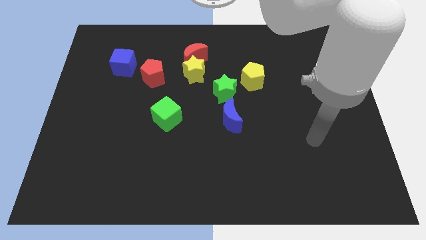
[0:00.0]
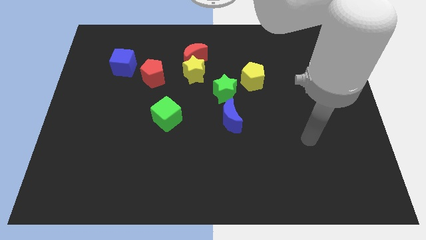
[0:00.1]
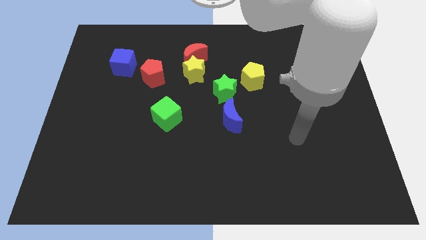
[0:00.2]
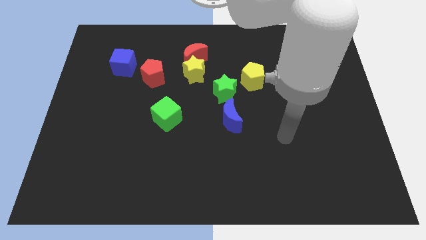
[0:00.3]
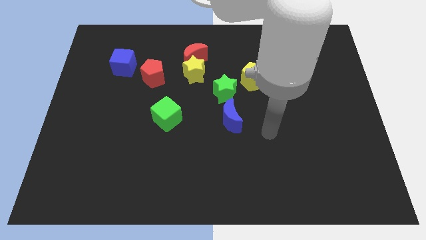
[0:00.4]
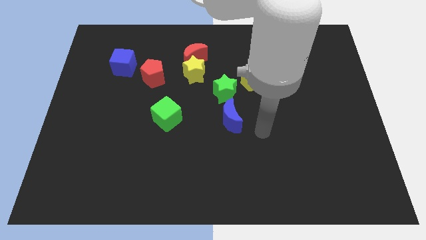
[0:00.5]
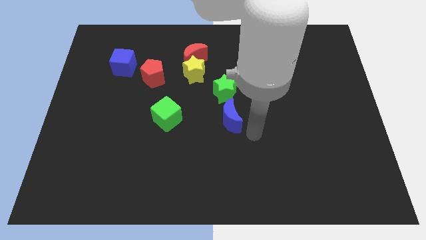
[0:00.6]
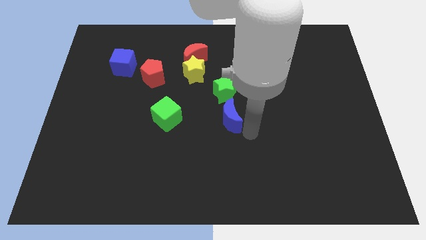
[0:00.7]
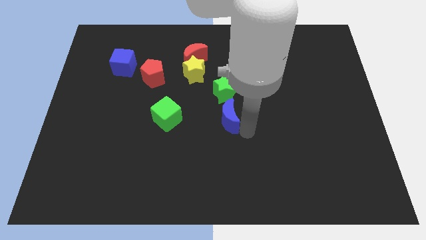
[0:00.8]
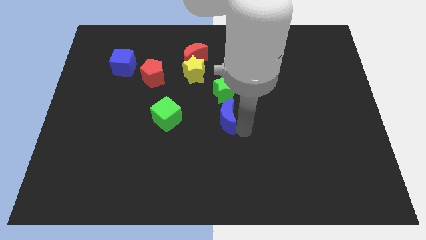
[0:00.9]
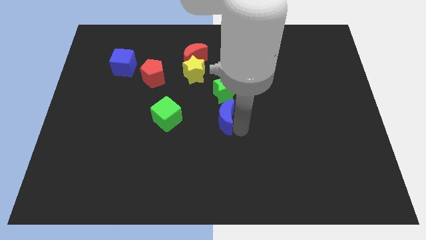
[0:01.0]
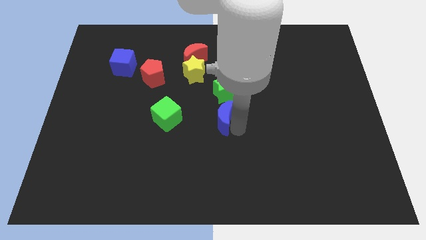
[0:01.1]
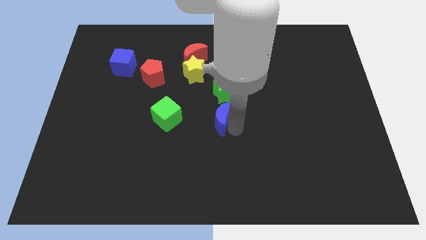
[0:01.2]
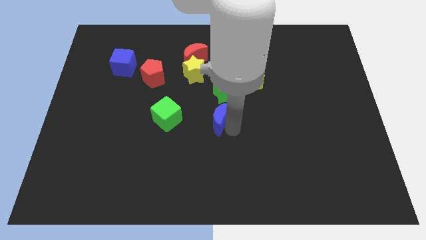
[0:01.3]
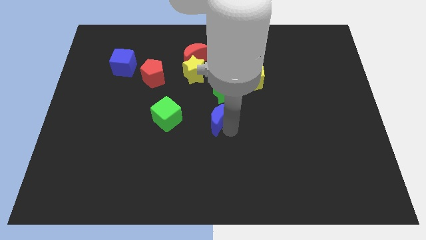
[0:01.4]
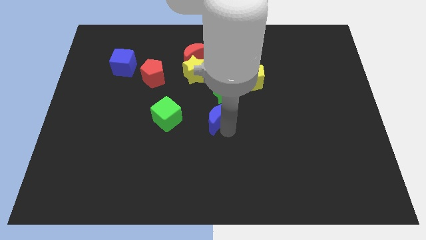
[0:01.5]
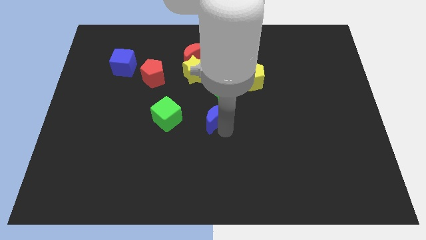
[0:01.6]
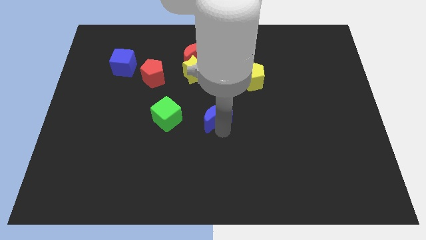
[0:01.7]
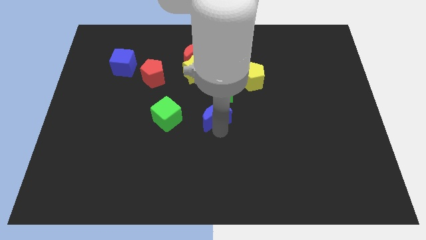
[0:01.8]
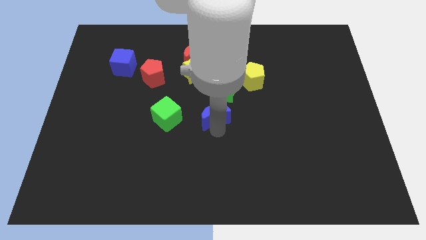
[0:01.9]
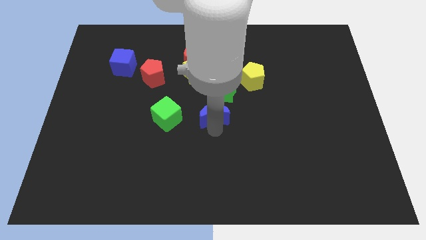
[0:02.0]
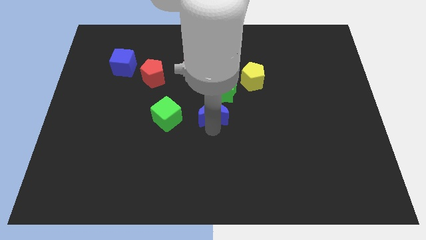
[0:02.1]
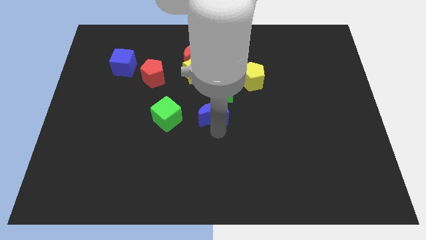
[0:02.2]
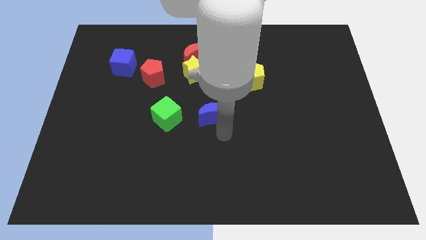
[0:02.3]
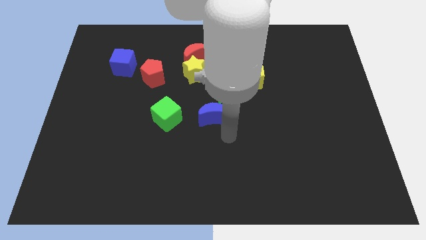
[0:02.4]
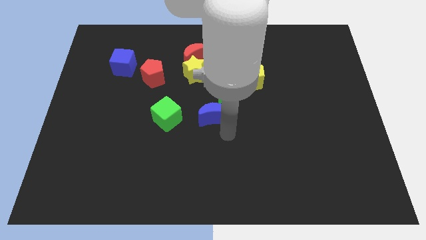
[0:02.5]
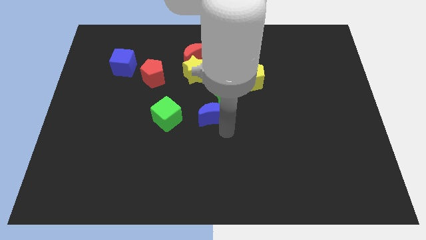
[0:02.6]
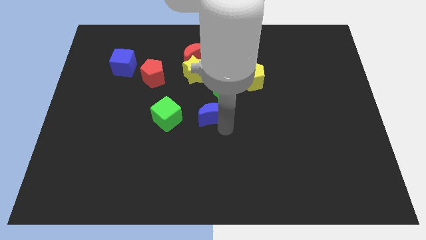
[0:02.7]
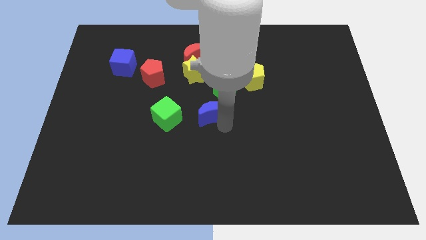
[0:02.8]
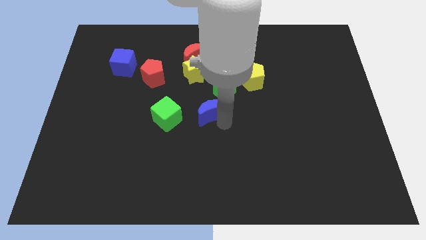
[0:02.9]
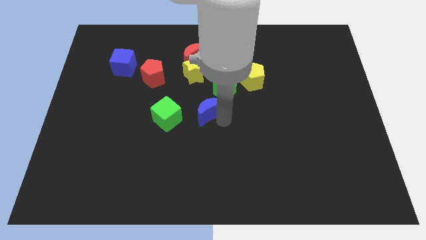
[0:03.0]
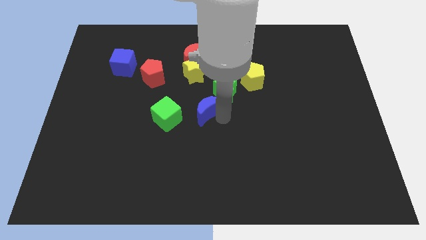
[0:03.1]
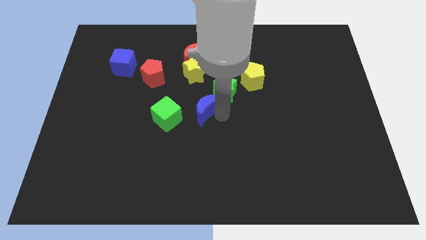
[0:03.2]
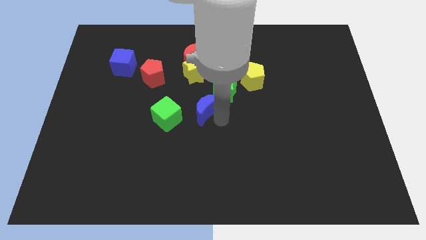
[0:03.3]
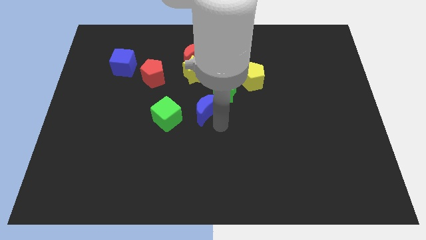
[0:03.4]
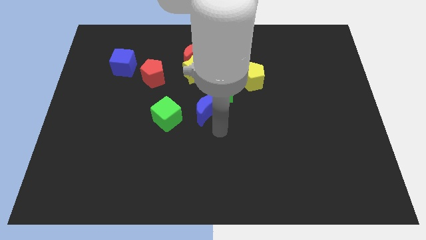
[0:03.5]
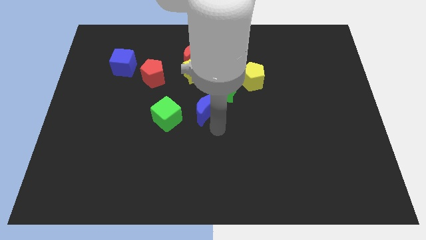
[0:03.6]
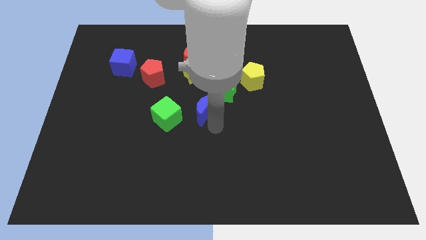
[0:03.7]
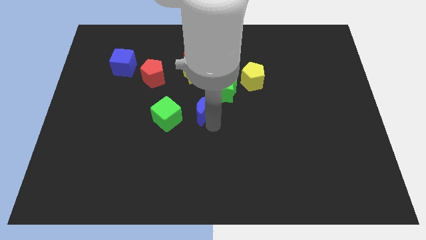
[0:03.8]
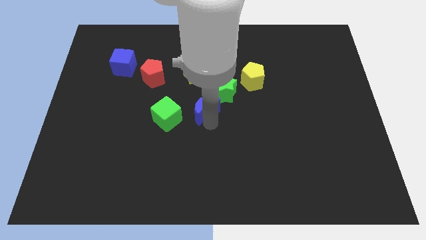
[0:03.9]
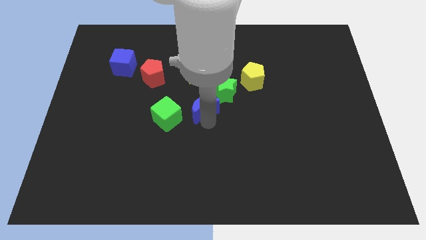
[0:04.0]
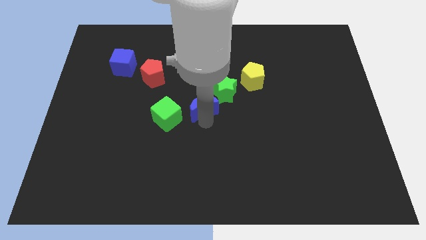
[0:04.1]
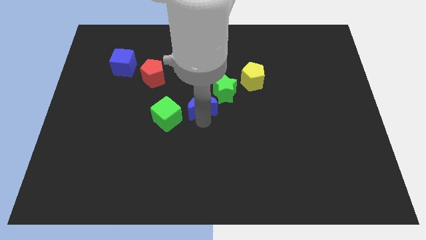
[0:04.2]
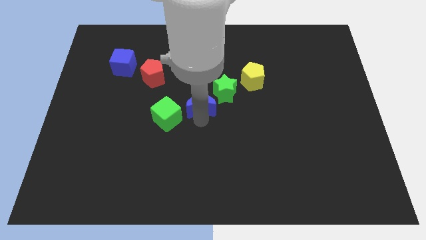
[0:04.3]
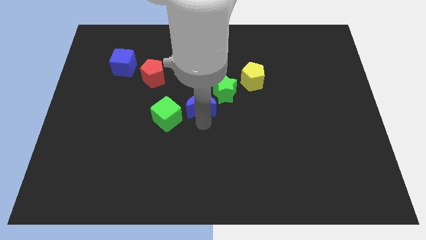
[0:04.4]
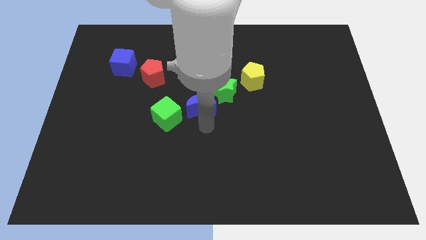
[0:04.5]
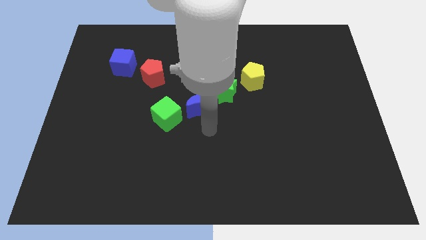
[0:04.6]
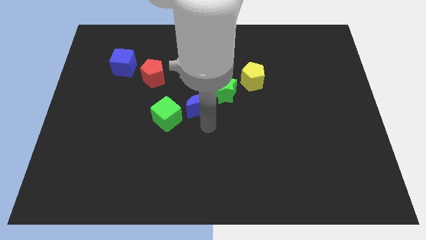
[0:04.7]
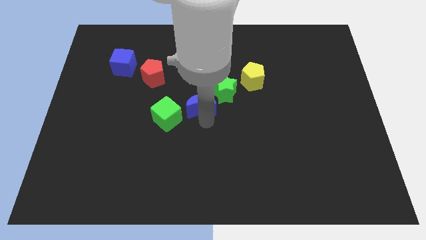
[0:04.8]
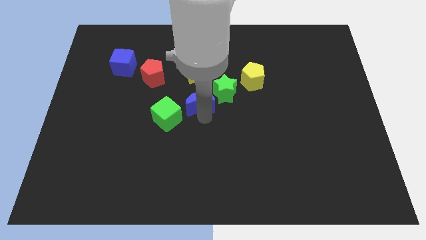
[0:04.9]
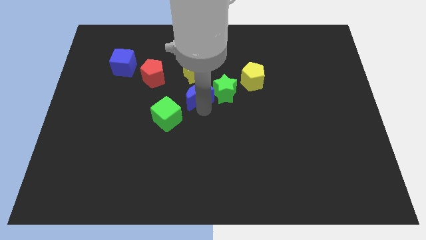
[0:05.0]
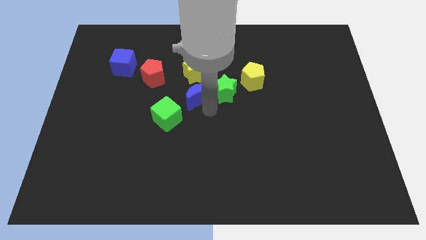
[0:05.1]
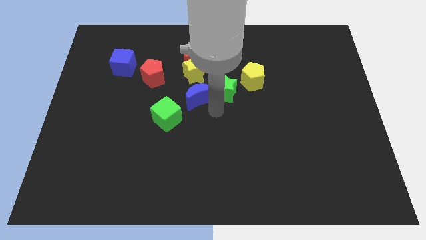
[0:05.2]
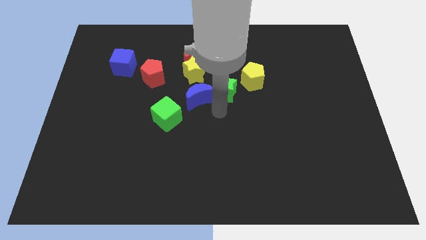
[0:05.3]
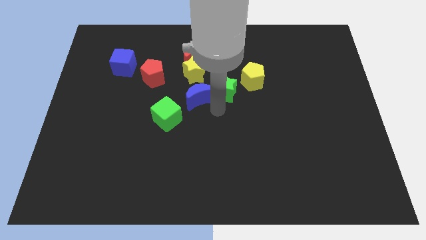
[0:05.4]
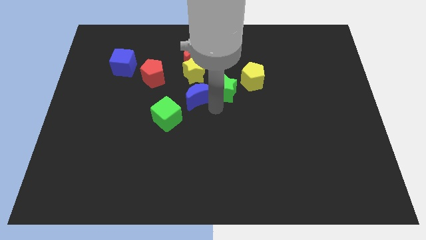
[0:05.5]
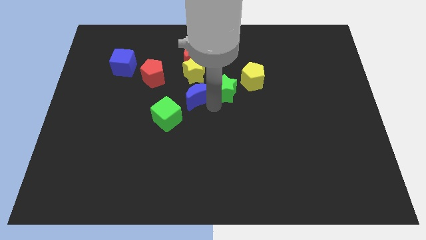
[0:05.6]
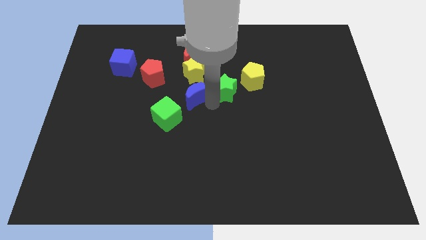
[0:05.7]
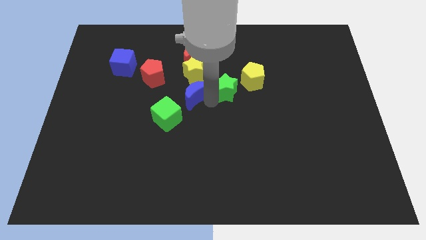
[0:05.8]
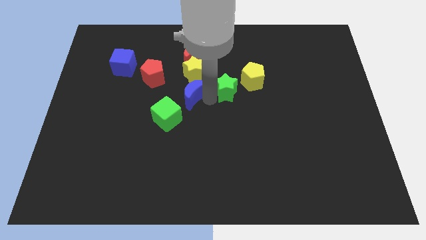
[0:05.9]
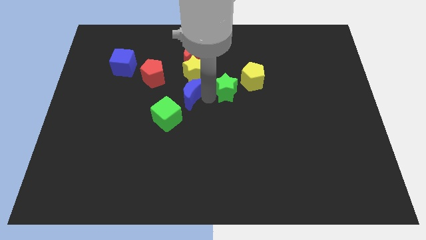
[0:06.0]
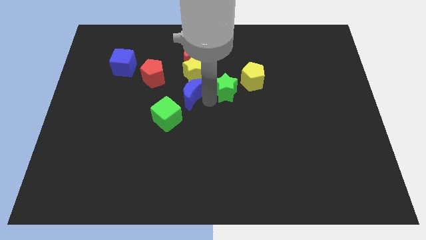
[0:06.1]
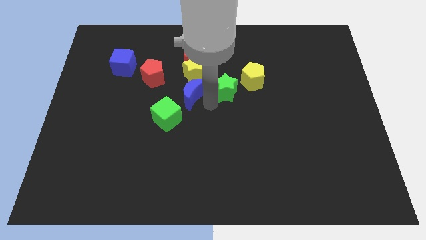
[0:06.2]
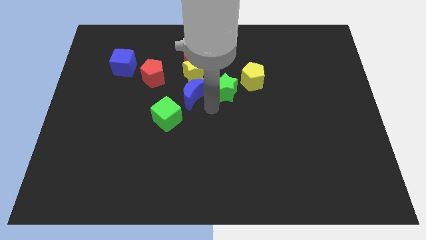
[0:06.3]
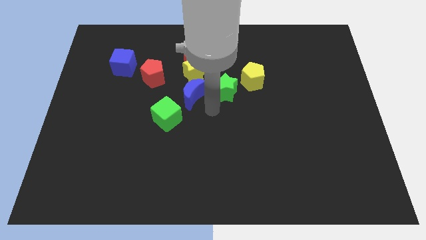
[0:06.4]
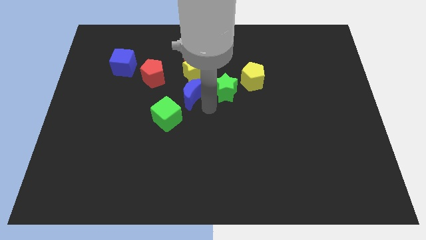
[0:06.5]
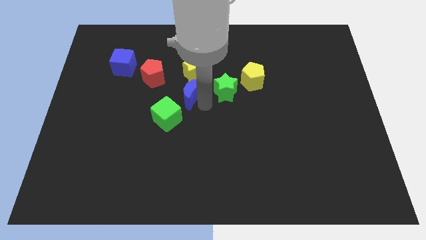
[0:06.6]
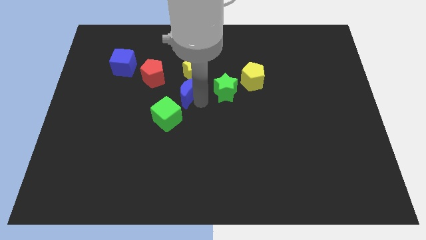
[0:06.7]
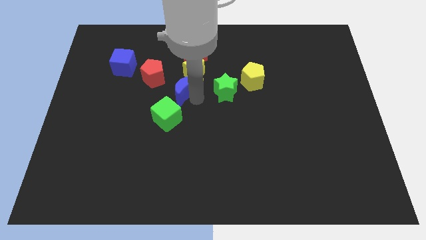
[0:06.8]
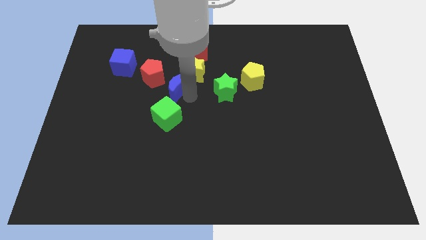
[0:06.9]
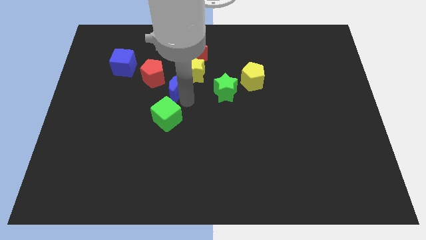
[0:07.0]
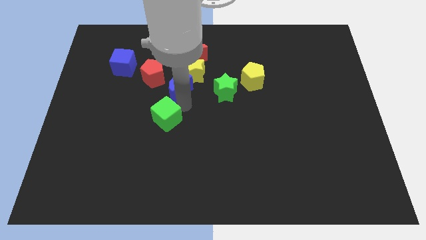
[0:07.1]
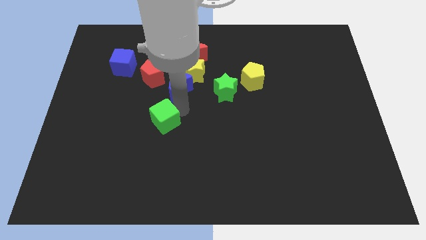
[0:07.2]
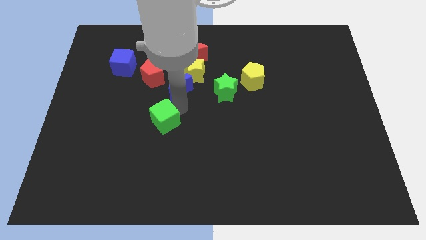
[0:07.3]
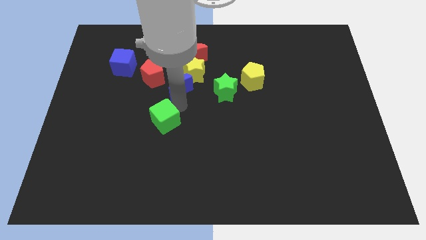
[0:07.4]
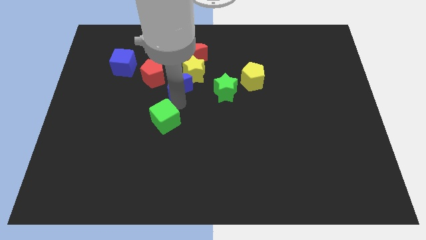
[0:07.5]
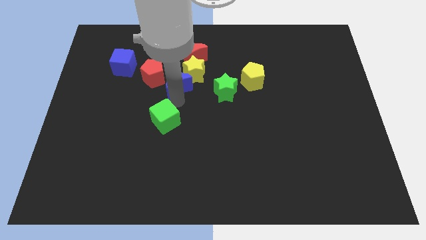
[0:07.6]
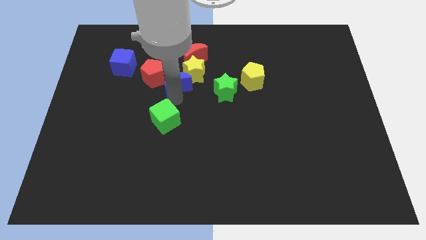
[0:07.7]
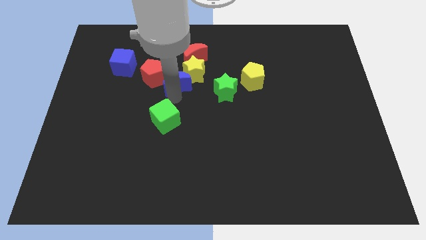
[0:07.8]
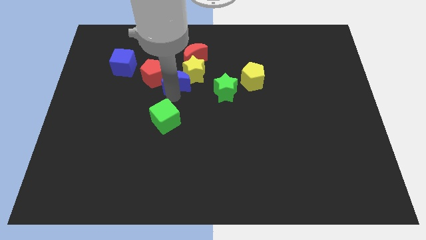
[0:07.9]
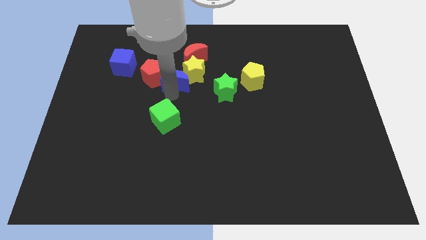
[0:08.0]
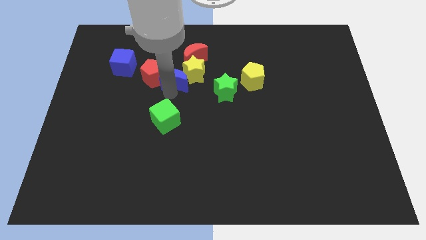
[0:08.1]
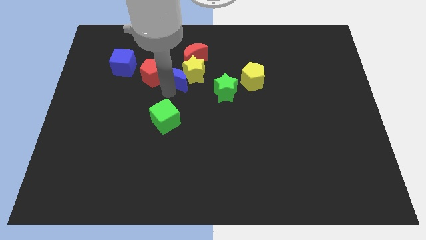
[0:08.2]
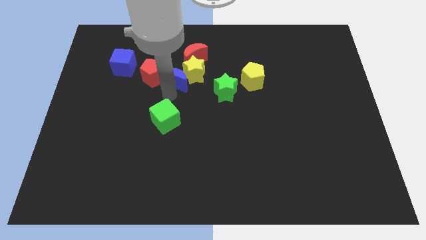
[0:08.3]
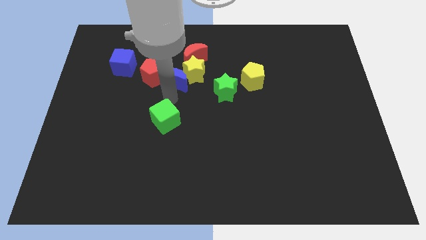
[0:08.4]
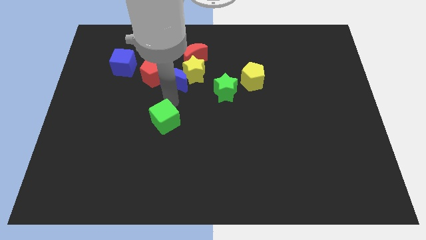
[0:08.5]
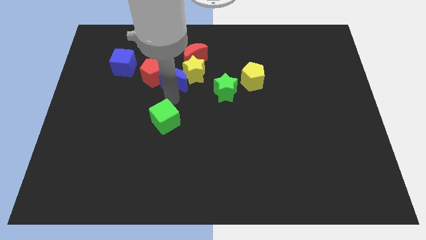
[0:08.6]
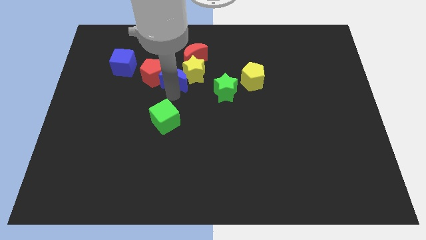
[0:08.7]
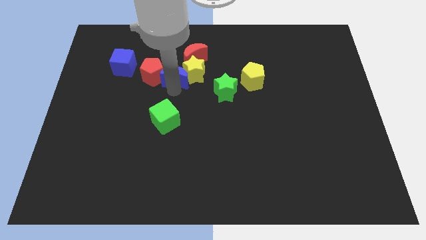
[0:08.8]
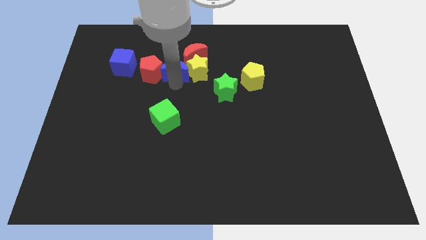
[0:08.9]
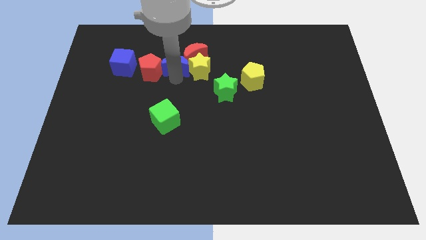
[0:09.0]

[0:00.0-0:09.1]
put the blue moon to the left of the red moon
